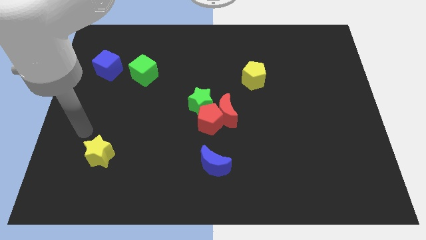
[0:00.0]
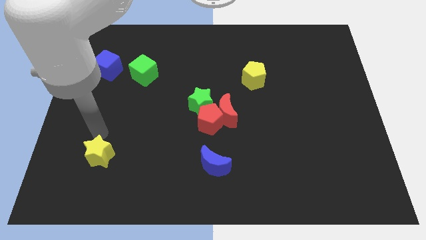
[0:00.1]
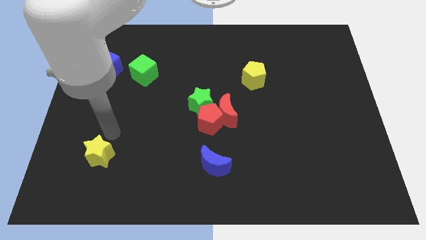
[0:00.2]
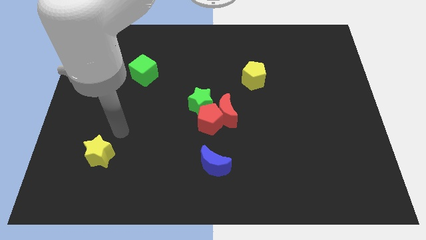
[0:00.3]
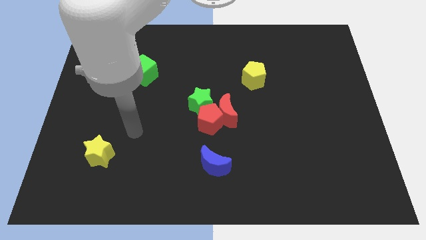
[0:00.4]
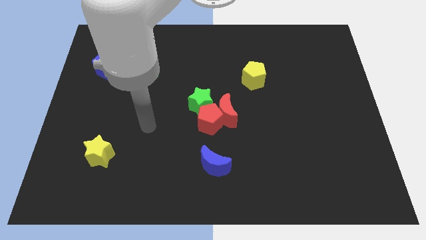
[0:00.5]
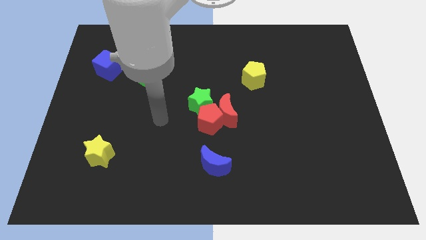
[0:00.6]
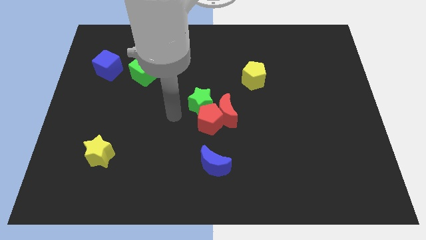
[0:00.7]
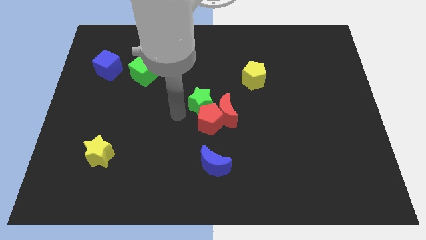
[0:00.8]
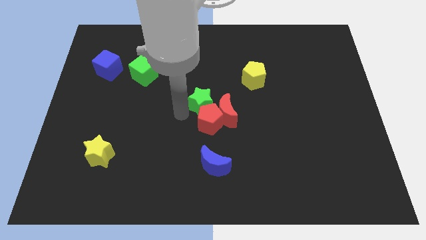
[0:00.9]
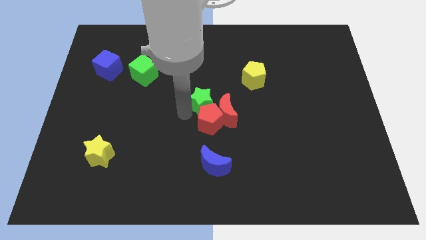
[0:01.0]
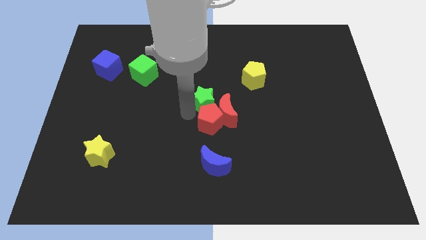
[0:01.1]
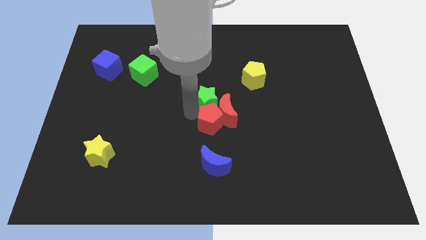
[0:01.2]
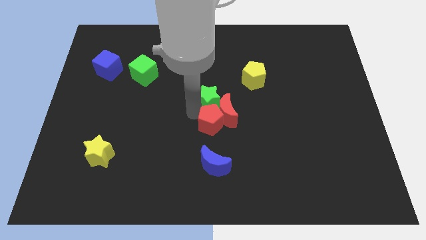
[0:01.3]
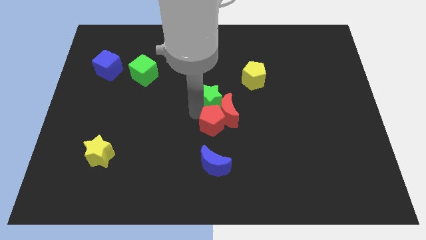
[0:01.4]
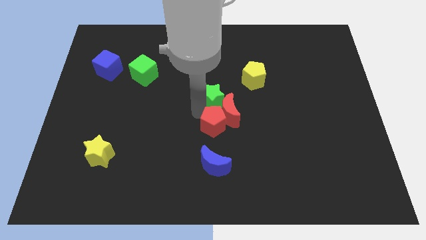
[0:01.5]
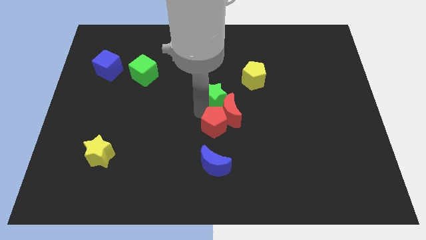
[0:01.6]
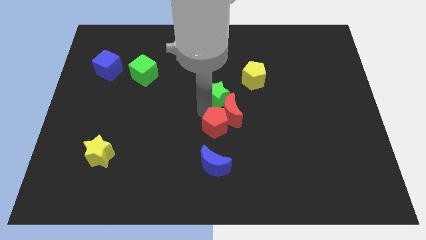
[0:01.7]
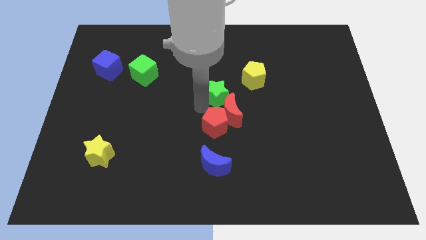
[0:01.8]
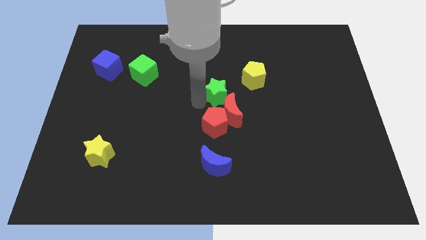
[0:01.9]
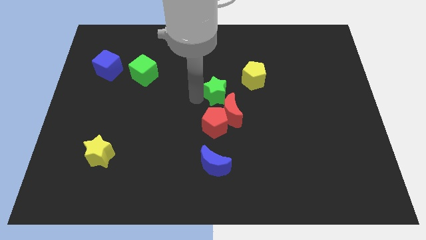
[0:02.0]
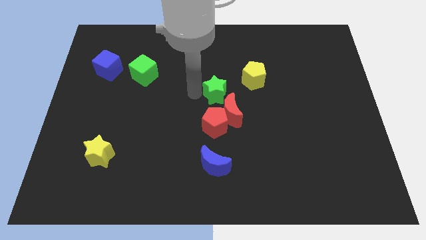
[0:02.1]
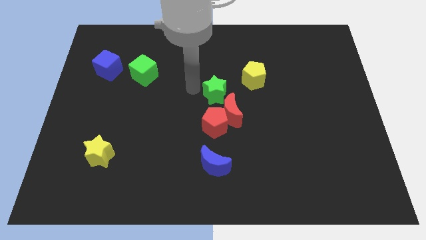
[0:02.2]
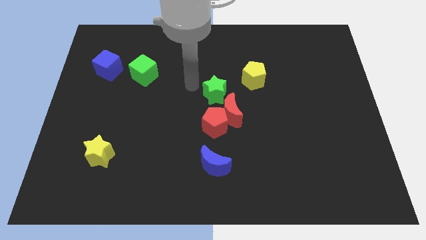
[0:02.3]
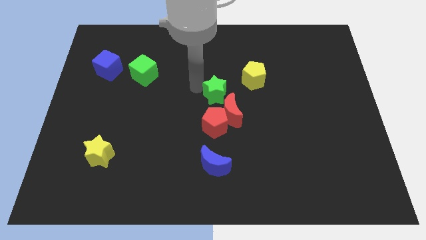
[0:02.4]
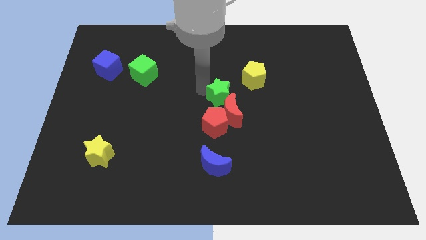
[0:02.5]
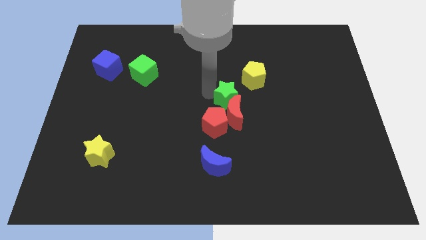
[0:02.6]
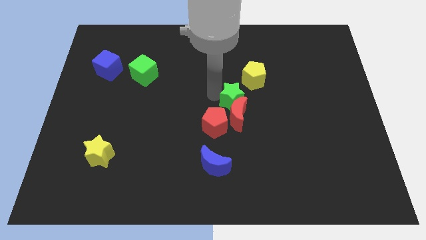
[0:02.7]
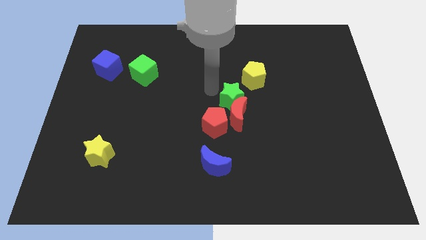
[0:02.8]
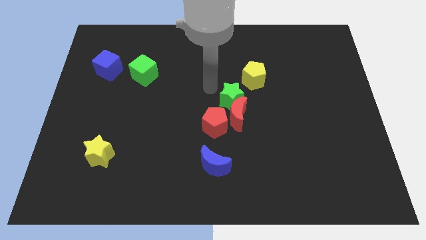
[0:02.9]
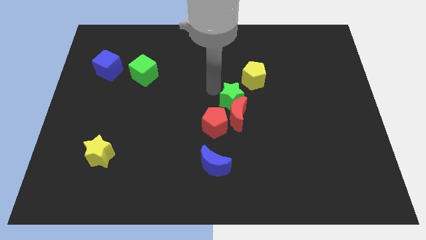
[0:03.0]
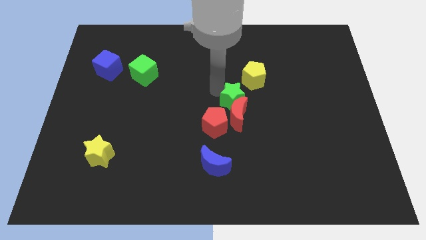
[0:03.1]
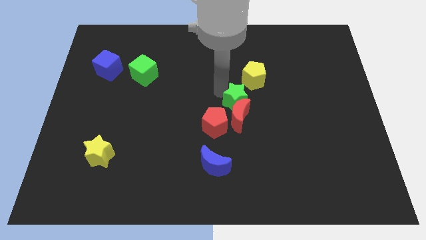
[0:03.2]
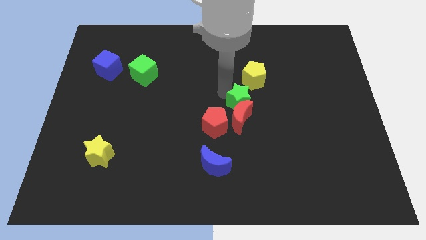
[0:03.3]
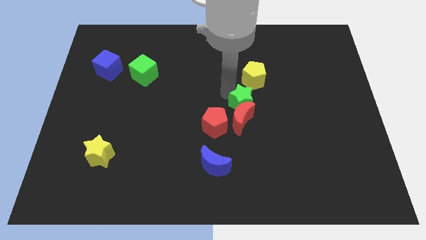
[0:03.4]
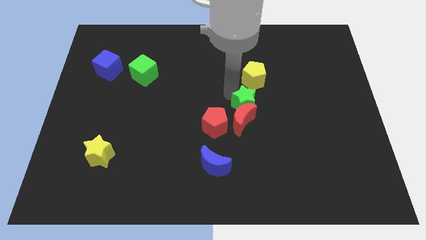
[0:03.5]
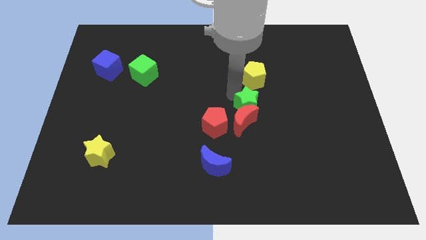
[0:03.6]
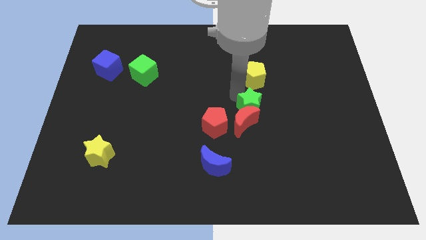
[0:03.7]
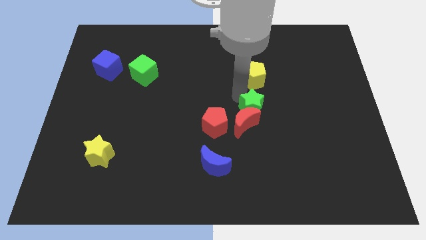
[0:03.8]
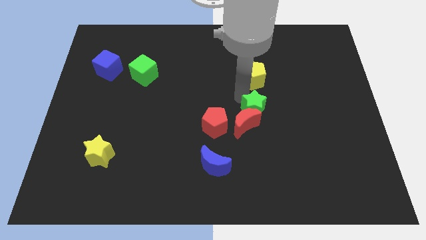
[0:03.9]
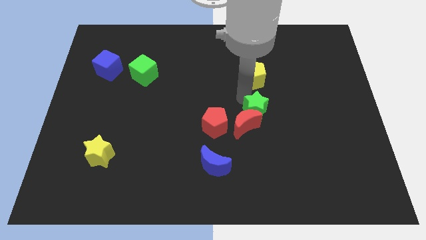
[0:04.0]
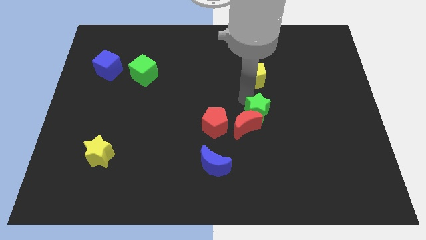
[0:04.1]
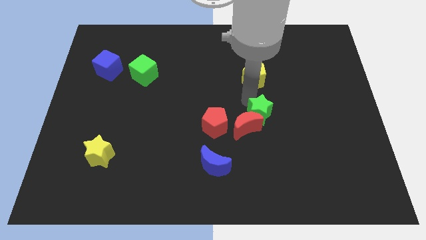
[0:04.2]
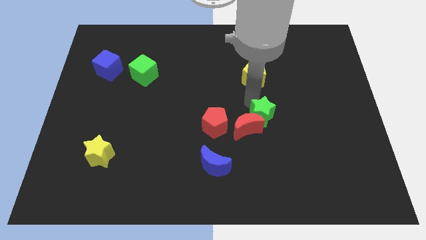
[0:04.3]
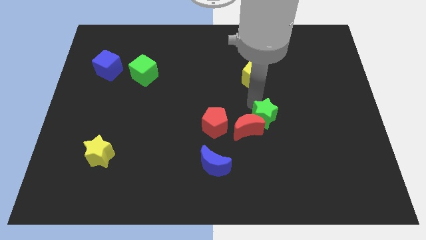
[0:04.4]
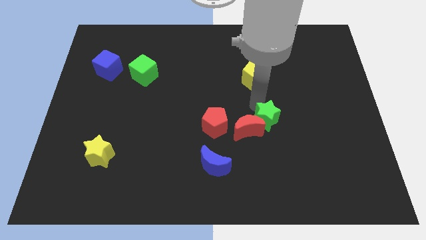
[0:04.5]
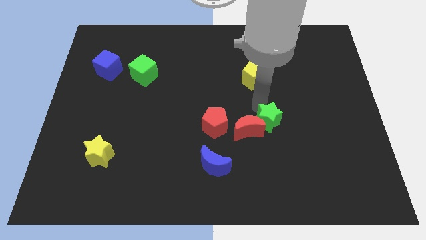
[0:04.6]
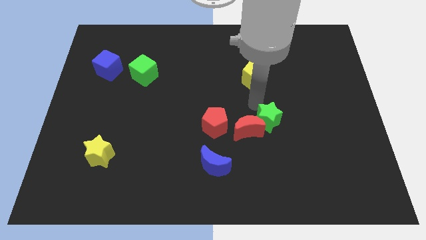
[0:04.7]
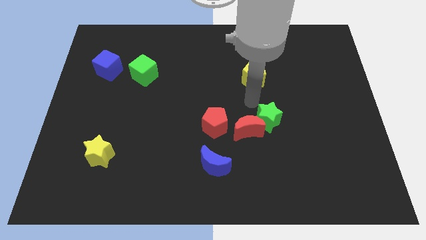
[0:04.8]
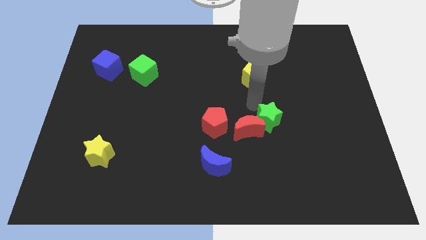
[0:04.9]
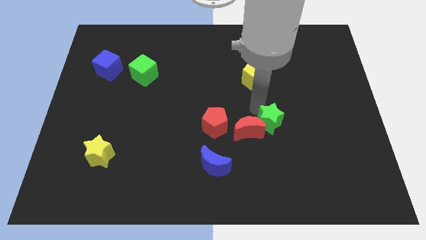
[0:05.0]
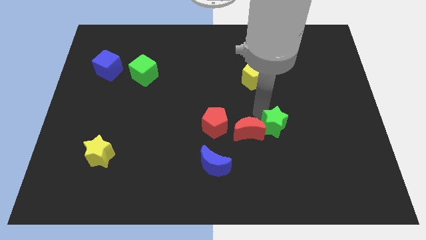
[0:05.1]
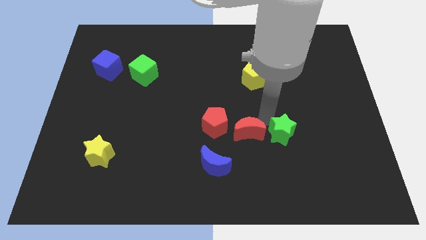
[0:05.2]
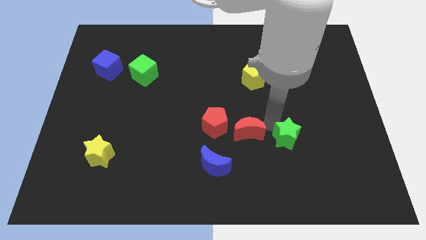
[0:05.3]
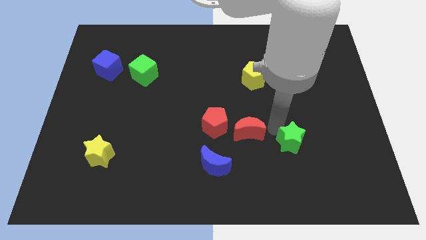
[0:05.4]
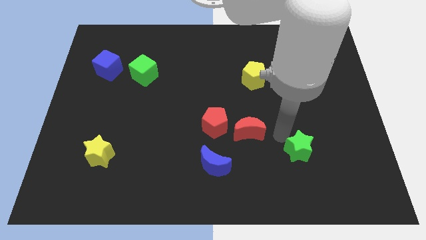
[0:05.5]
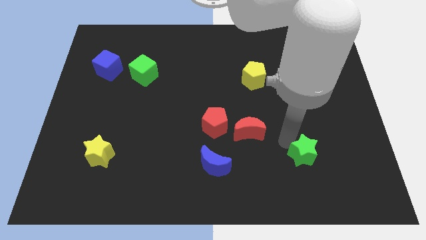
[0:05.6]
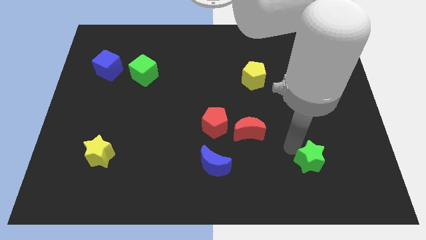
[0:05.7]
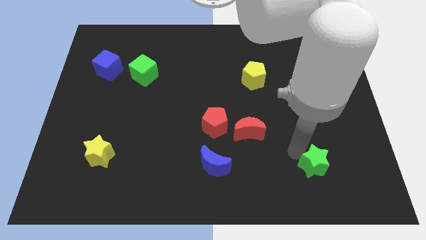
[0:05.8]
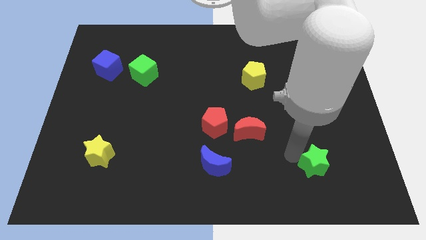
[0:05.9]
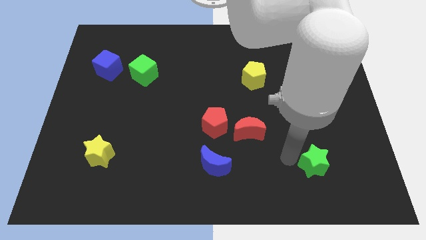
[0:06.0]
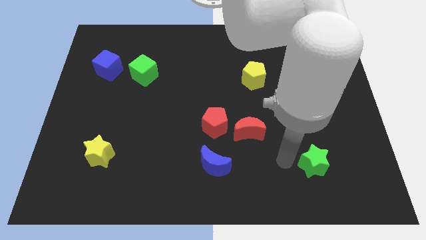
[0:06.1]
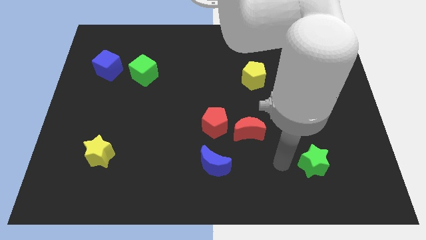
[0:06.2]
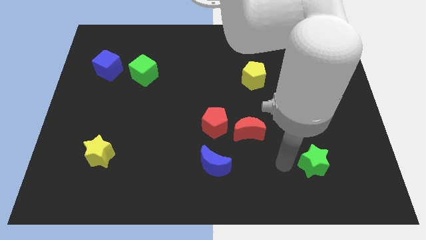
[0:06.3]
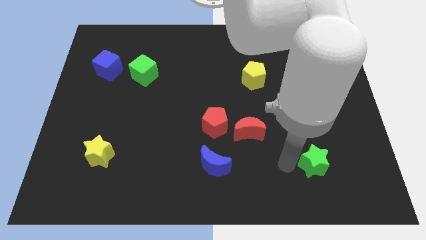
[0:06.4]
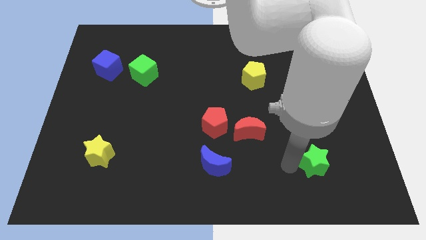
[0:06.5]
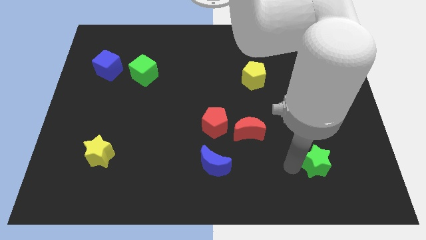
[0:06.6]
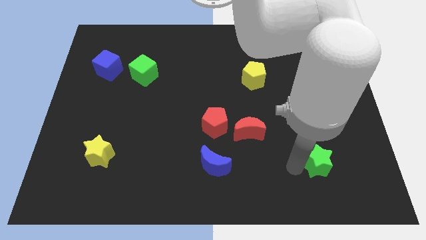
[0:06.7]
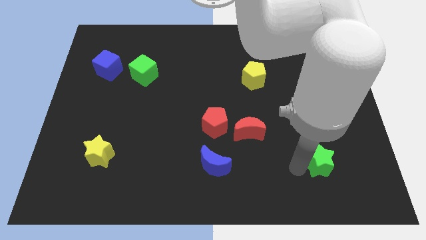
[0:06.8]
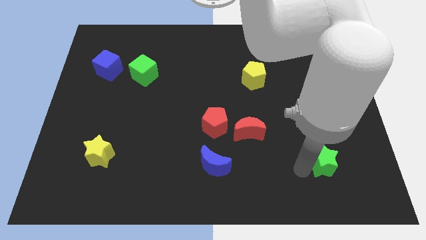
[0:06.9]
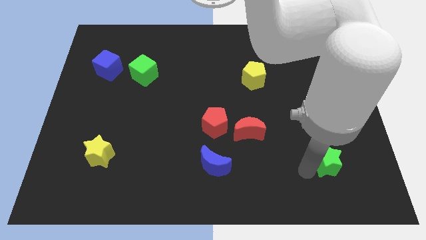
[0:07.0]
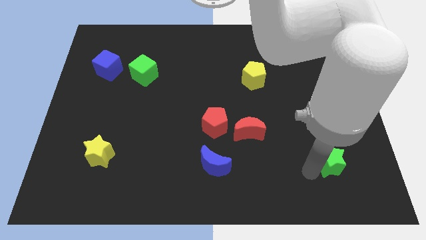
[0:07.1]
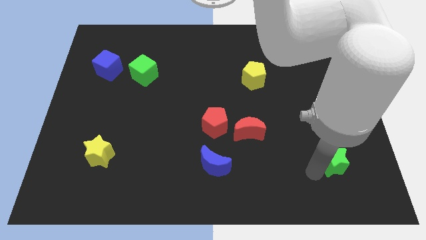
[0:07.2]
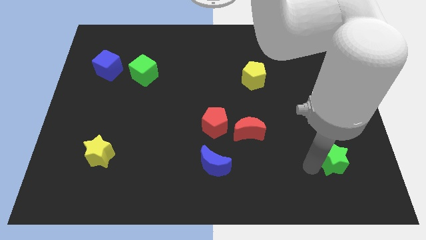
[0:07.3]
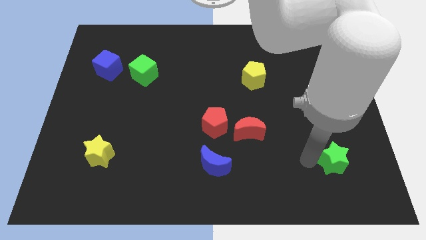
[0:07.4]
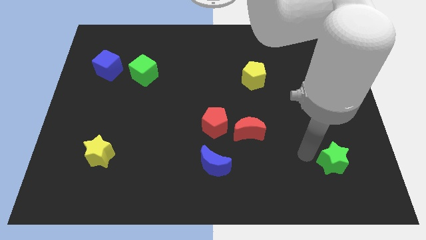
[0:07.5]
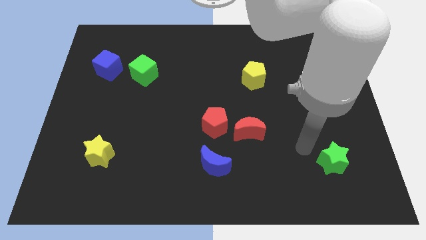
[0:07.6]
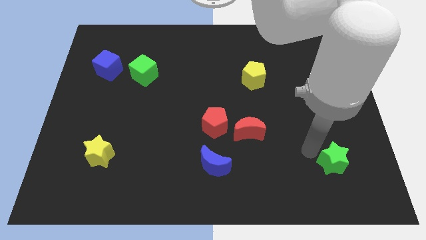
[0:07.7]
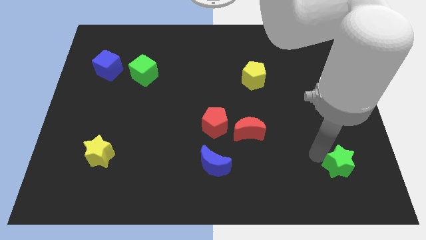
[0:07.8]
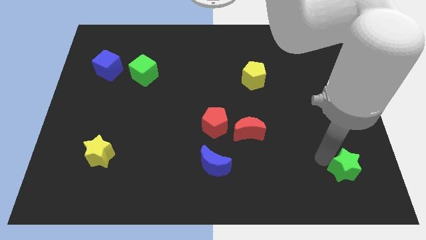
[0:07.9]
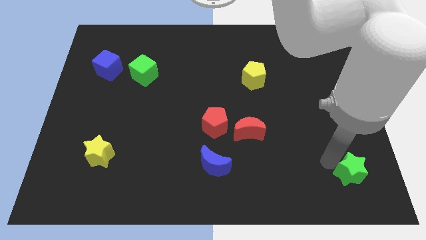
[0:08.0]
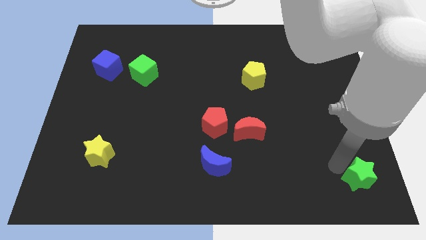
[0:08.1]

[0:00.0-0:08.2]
move the green star to the bottom right corner
